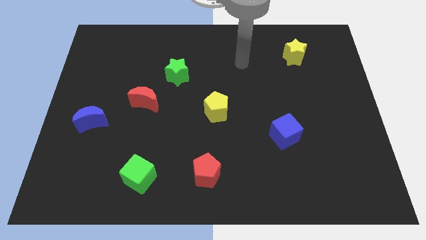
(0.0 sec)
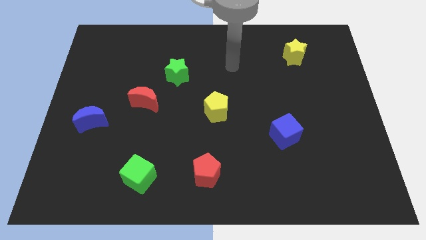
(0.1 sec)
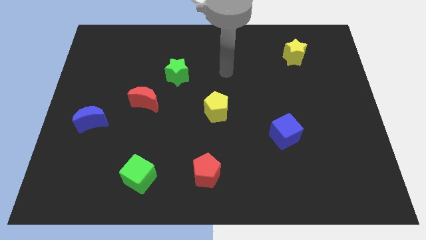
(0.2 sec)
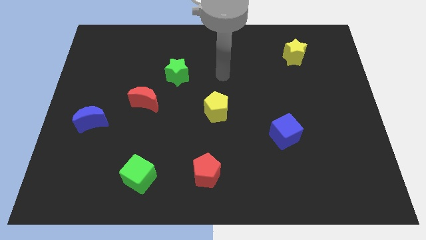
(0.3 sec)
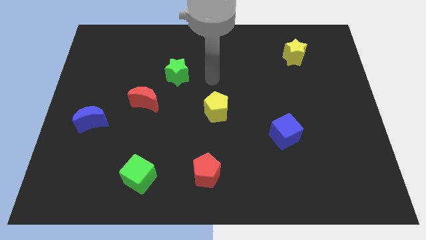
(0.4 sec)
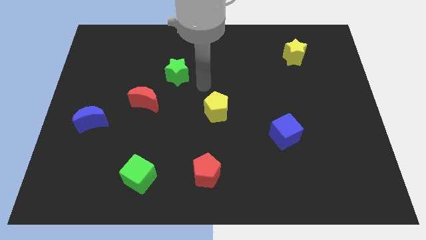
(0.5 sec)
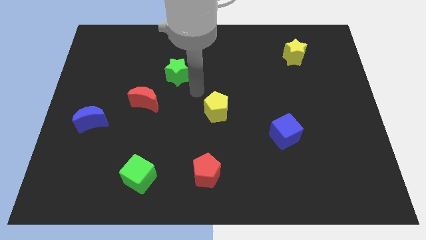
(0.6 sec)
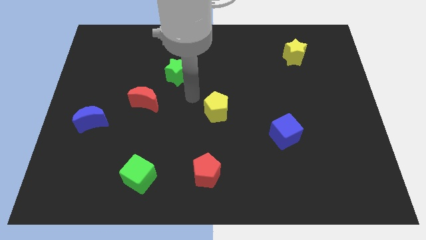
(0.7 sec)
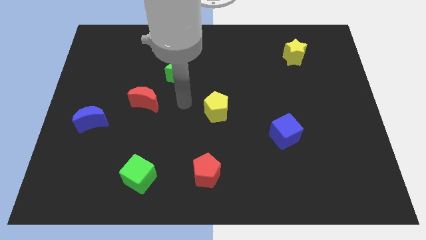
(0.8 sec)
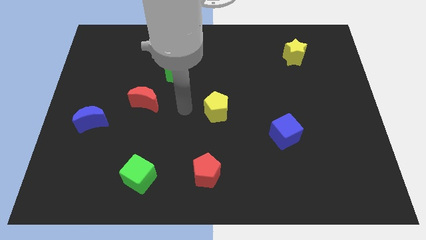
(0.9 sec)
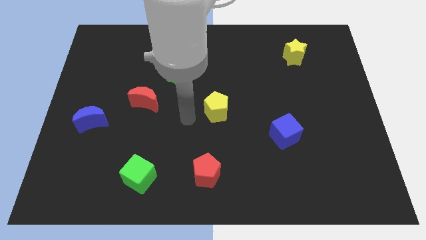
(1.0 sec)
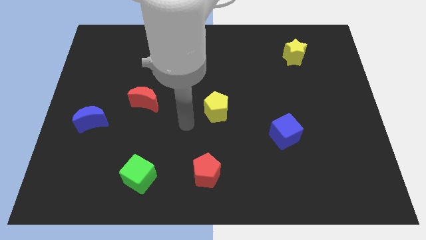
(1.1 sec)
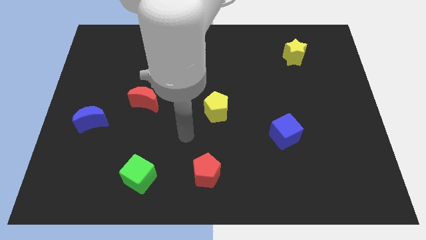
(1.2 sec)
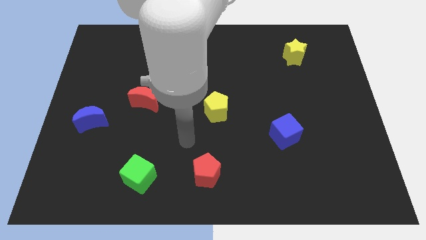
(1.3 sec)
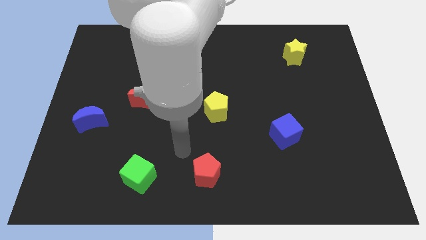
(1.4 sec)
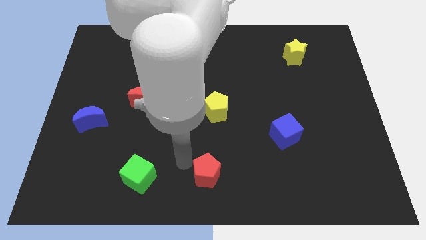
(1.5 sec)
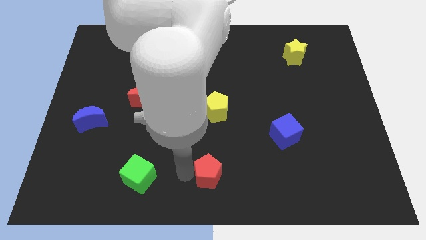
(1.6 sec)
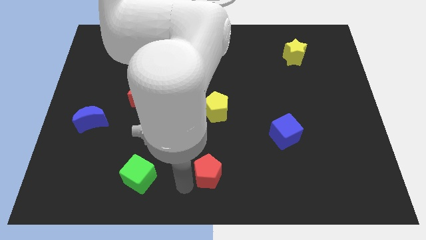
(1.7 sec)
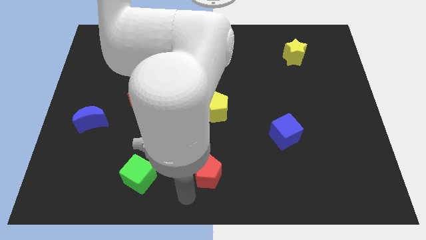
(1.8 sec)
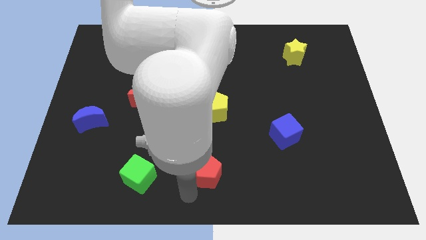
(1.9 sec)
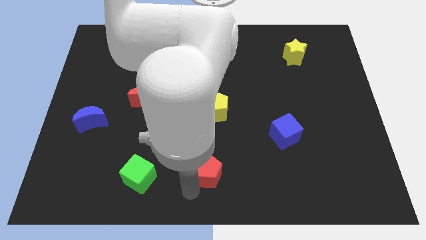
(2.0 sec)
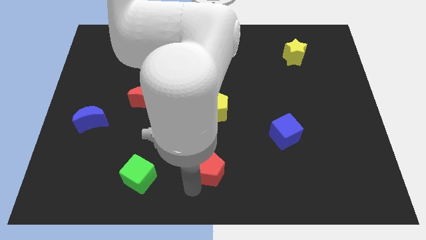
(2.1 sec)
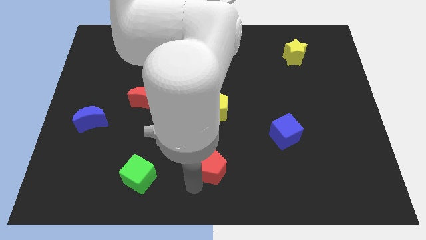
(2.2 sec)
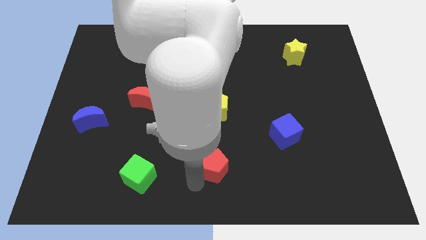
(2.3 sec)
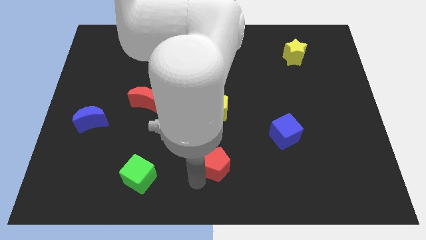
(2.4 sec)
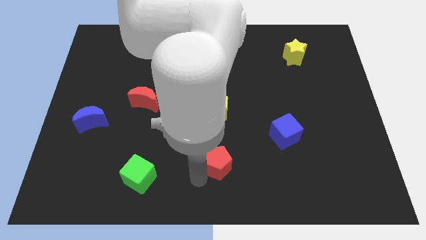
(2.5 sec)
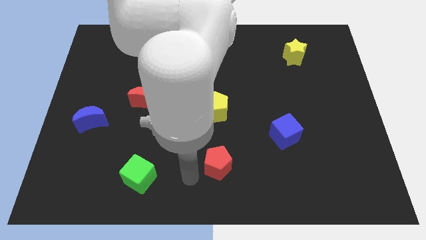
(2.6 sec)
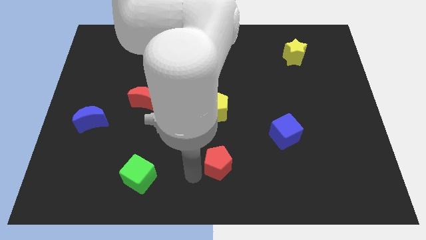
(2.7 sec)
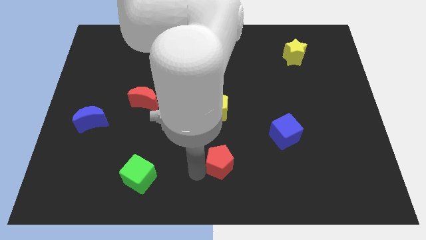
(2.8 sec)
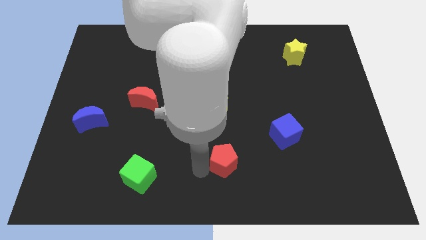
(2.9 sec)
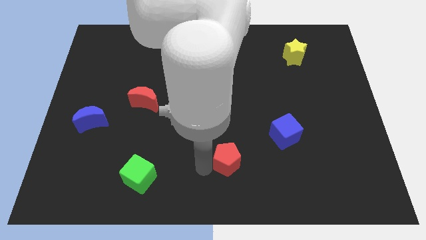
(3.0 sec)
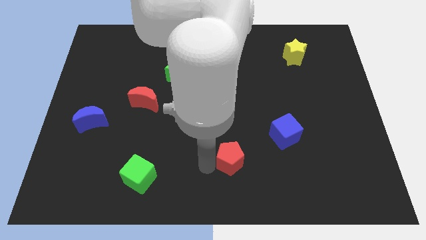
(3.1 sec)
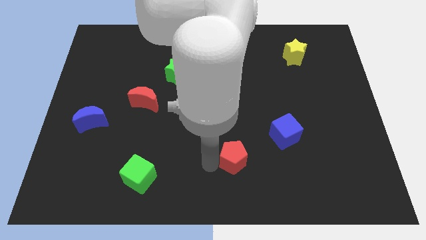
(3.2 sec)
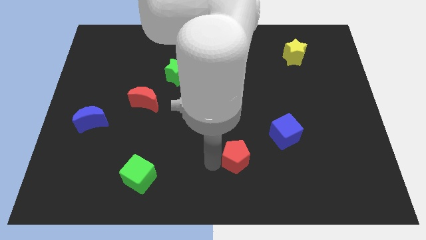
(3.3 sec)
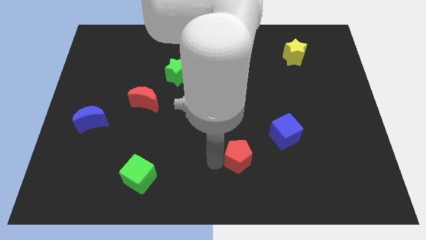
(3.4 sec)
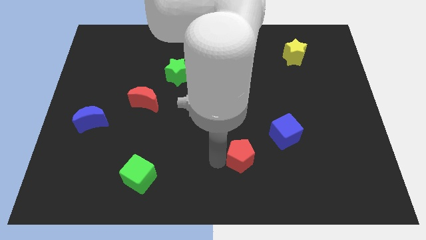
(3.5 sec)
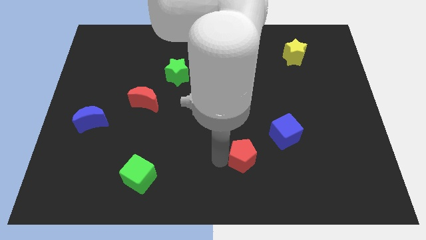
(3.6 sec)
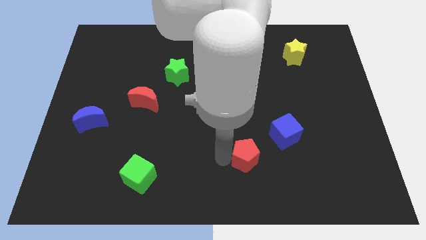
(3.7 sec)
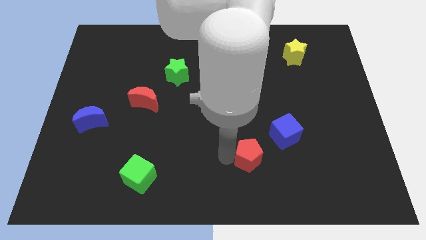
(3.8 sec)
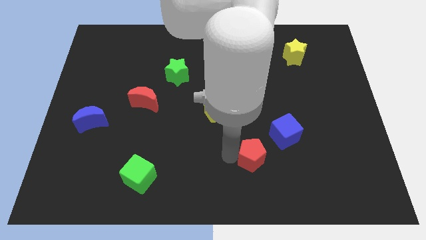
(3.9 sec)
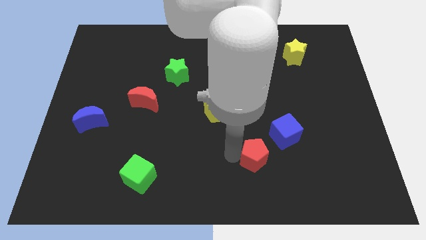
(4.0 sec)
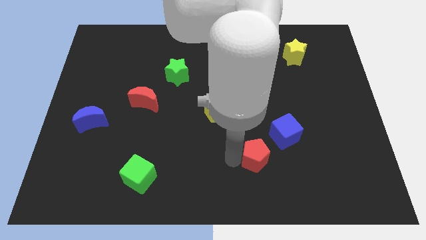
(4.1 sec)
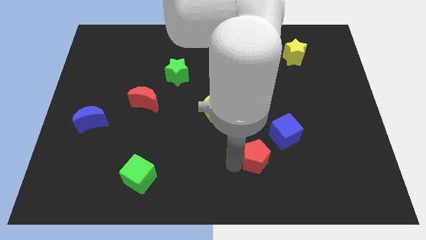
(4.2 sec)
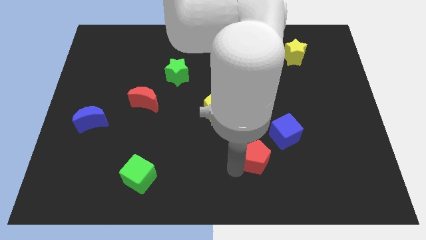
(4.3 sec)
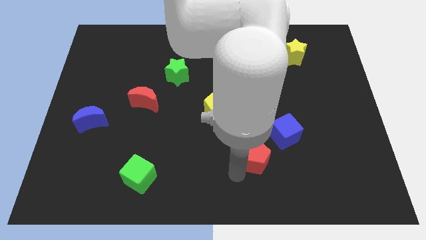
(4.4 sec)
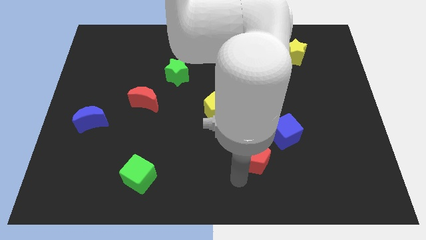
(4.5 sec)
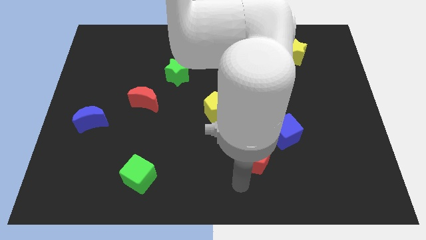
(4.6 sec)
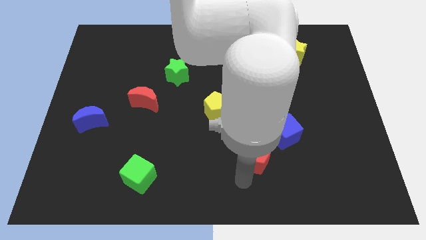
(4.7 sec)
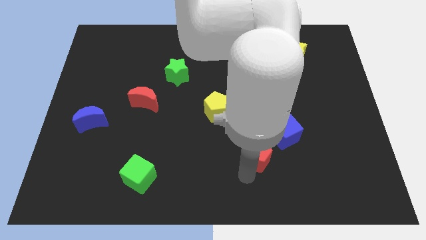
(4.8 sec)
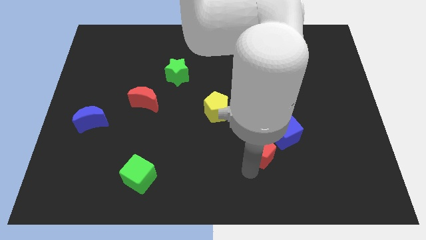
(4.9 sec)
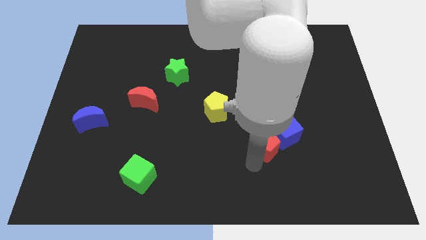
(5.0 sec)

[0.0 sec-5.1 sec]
put the red pentagon towards the blue cube

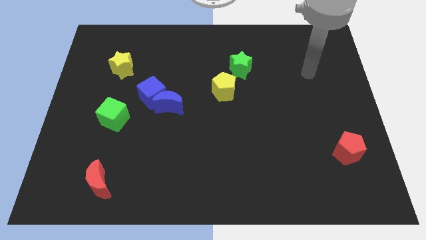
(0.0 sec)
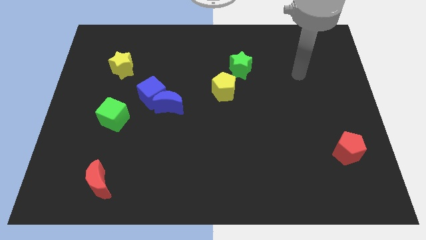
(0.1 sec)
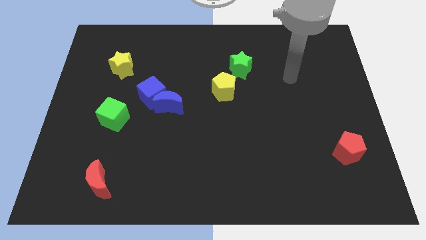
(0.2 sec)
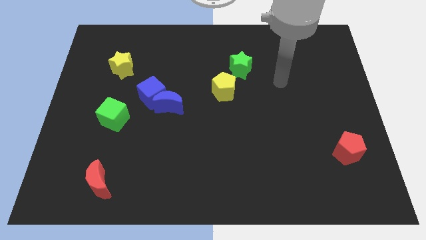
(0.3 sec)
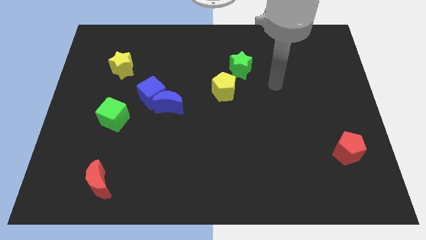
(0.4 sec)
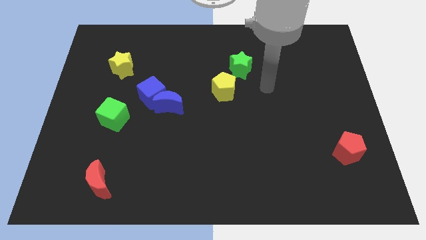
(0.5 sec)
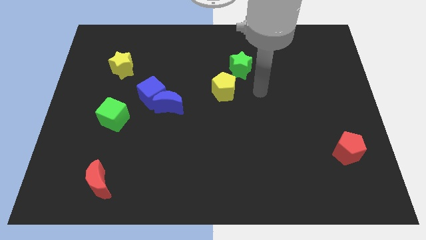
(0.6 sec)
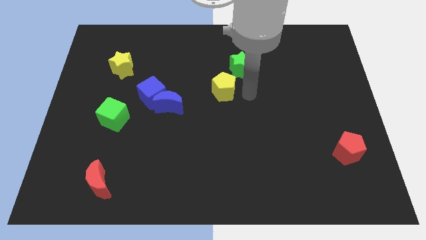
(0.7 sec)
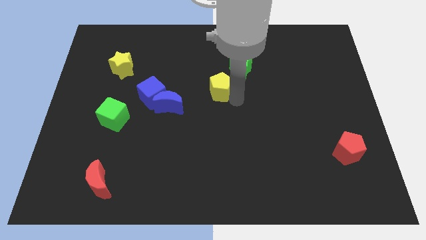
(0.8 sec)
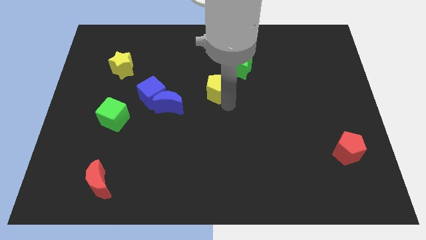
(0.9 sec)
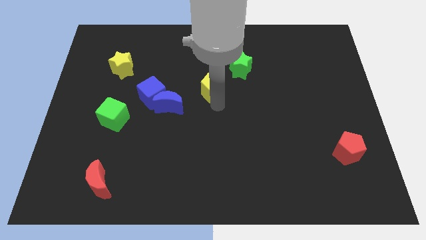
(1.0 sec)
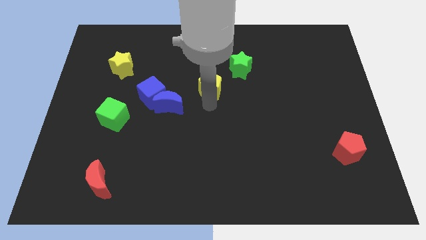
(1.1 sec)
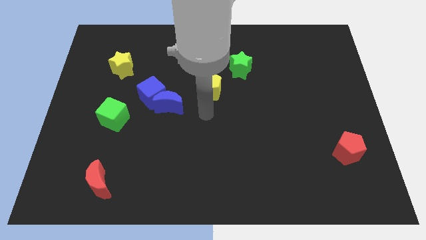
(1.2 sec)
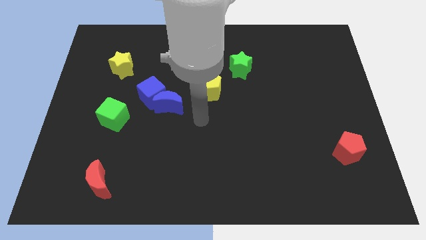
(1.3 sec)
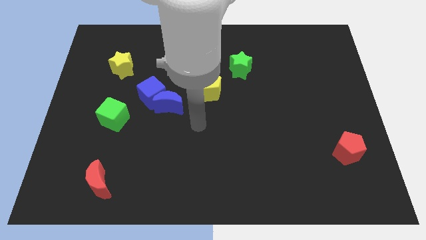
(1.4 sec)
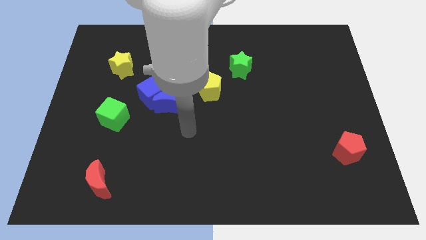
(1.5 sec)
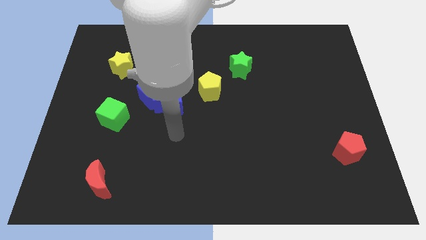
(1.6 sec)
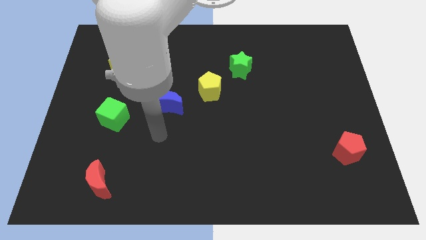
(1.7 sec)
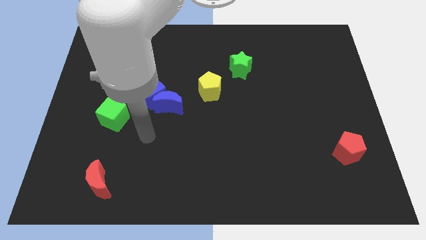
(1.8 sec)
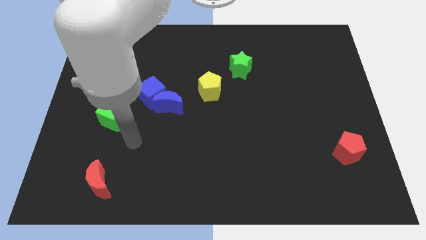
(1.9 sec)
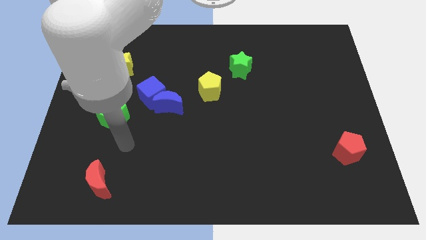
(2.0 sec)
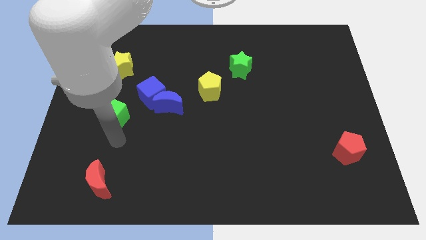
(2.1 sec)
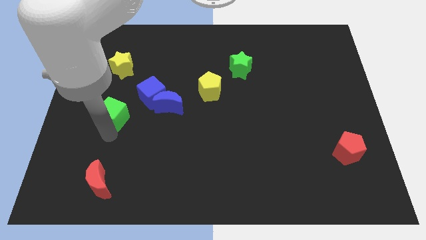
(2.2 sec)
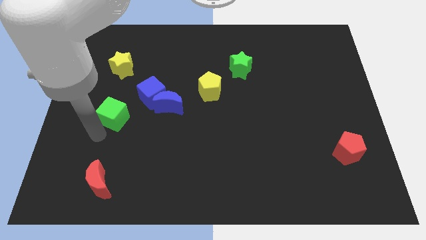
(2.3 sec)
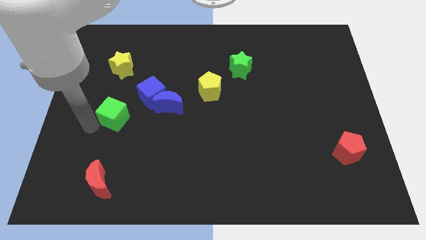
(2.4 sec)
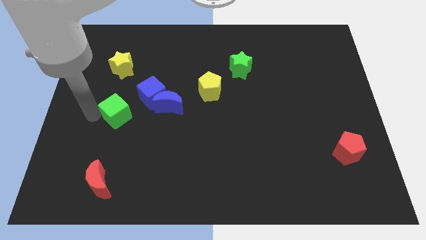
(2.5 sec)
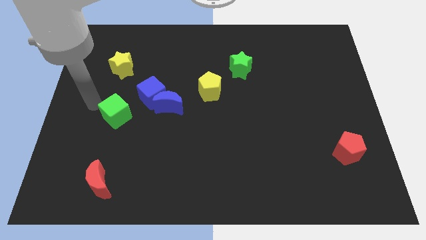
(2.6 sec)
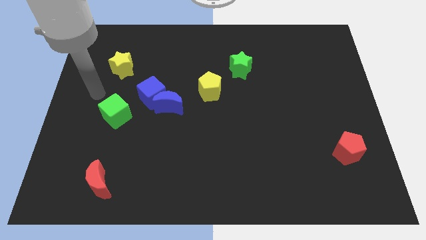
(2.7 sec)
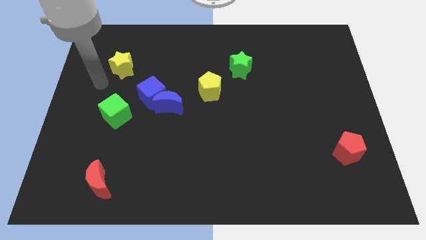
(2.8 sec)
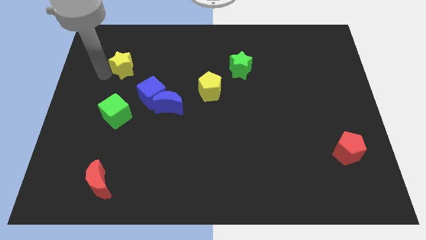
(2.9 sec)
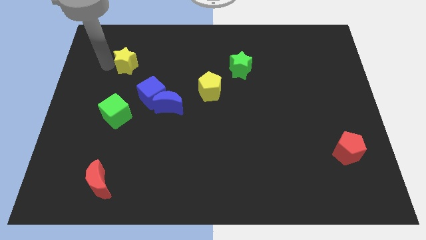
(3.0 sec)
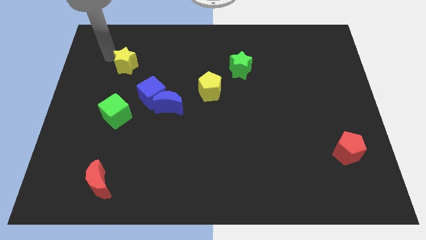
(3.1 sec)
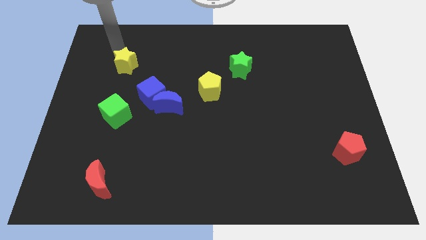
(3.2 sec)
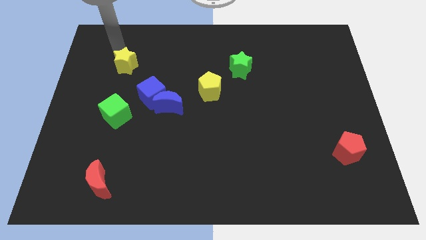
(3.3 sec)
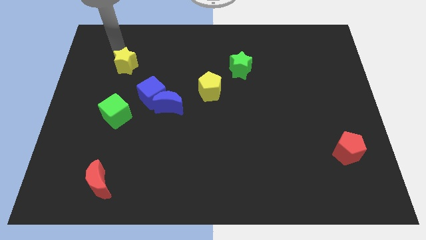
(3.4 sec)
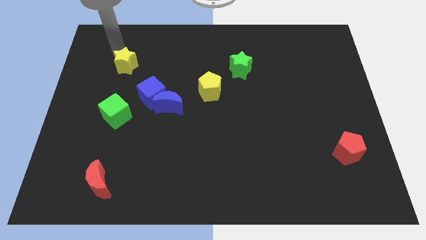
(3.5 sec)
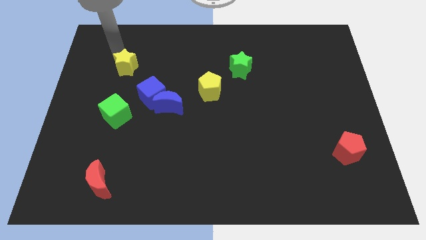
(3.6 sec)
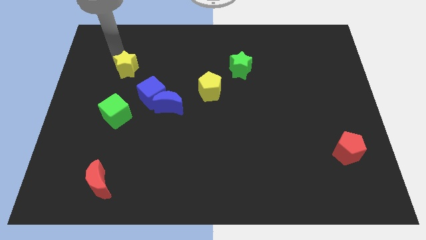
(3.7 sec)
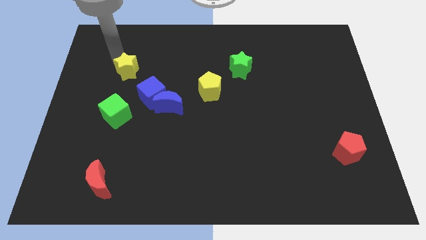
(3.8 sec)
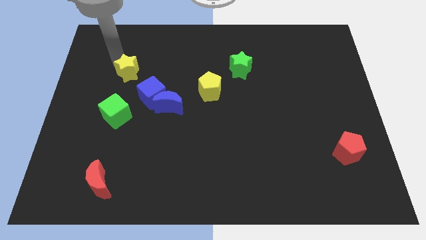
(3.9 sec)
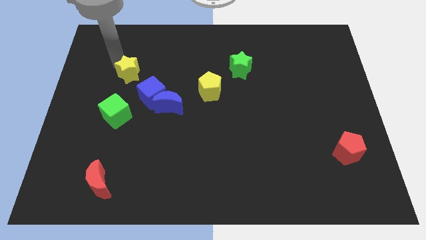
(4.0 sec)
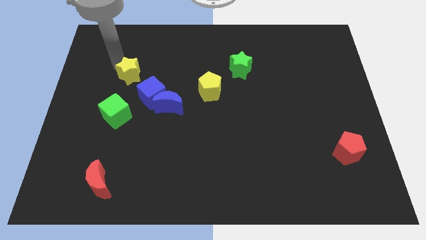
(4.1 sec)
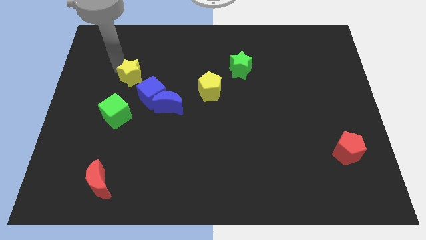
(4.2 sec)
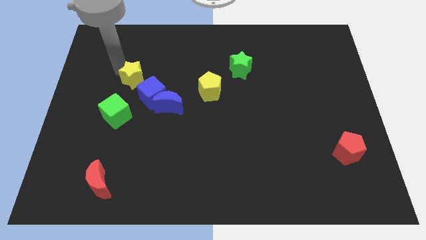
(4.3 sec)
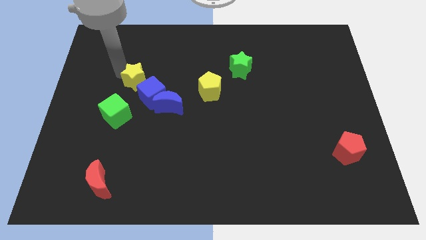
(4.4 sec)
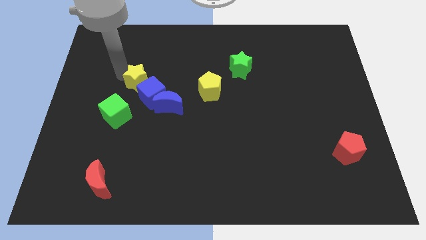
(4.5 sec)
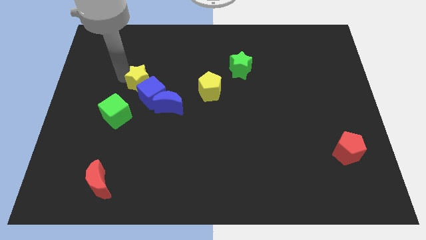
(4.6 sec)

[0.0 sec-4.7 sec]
push the yellow star towards the blue cube
